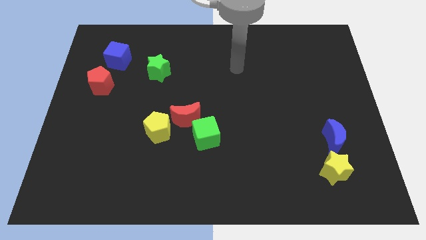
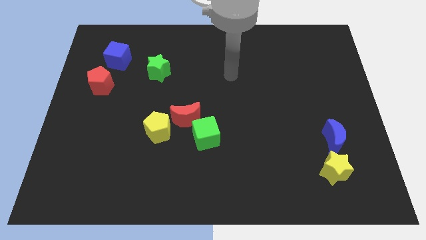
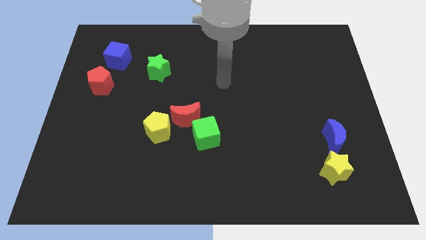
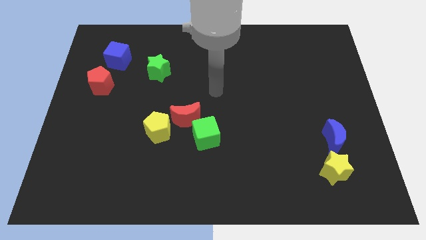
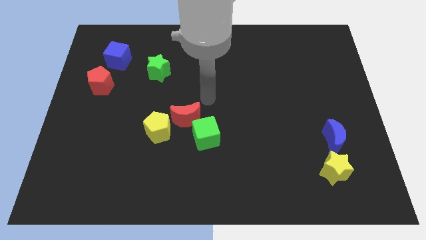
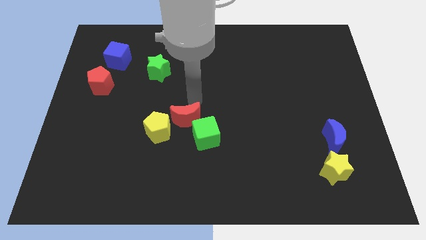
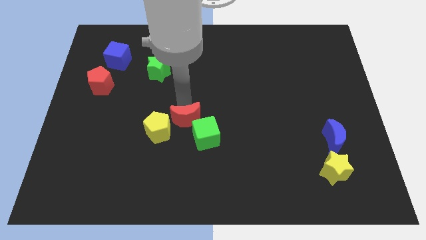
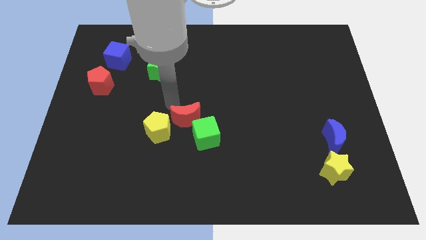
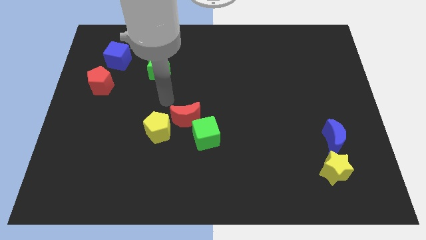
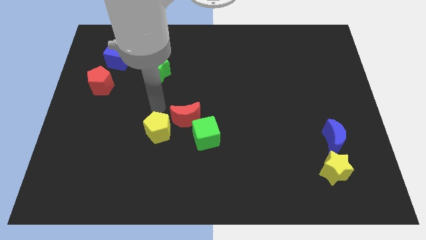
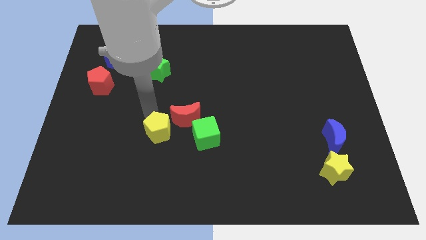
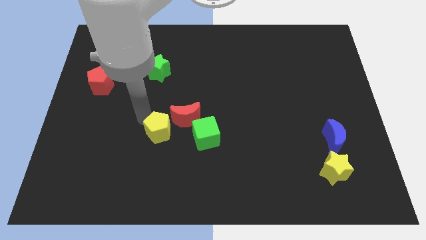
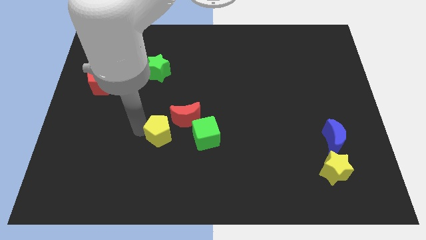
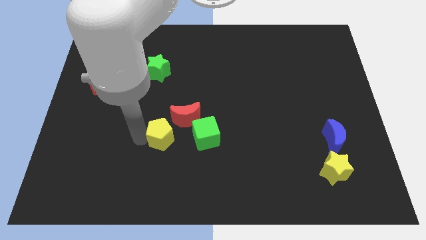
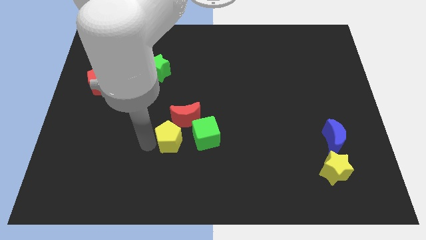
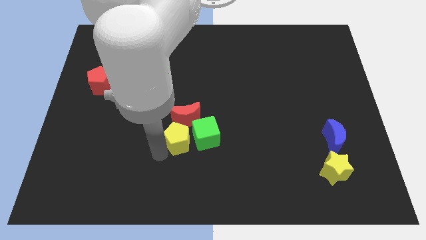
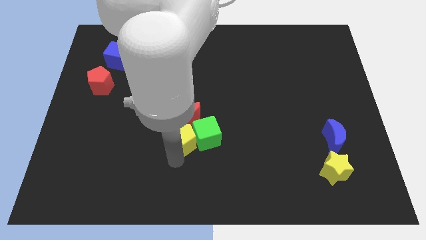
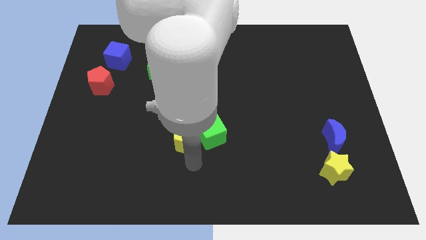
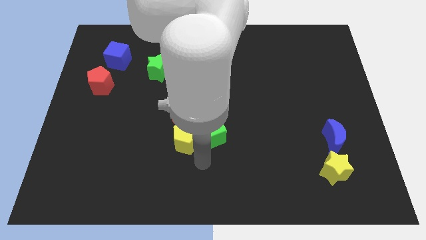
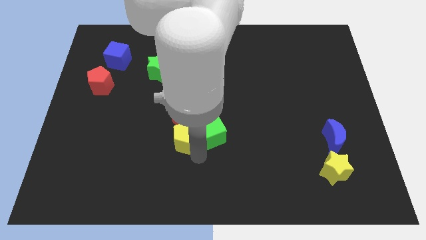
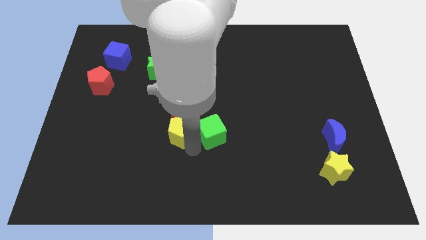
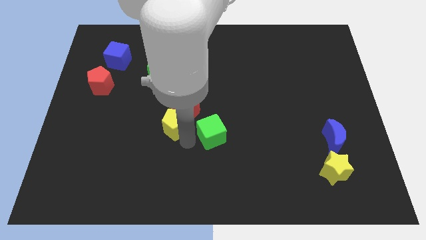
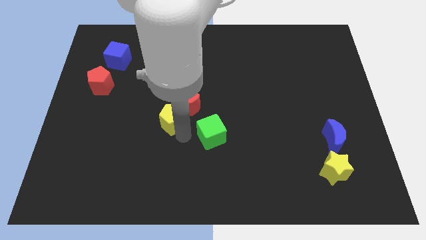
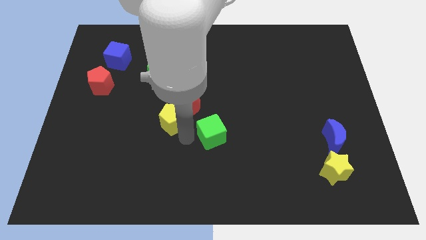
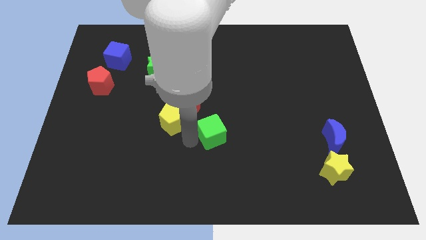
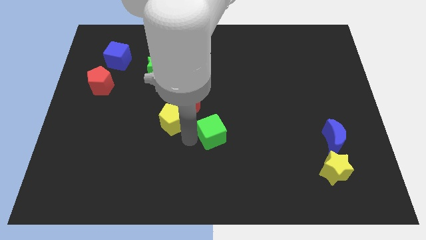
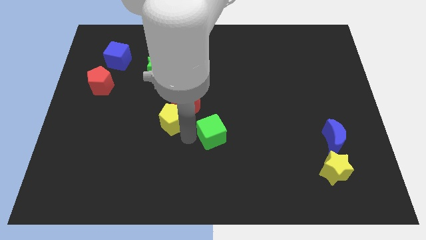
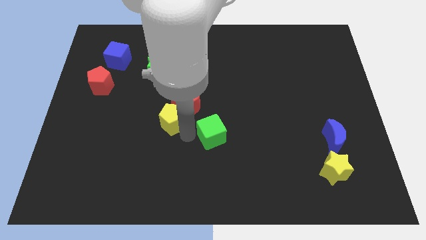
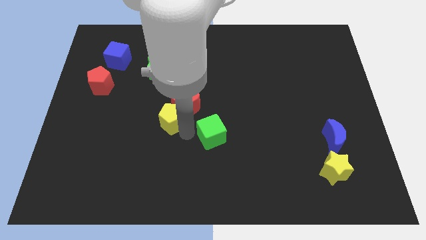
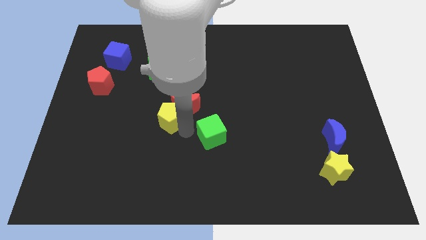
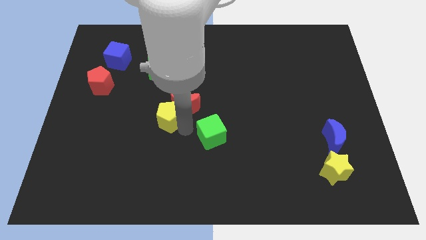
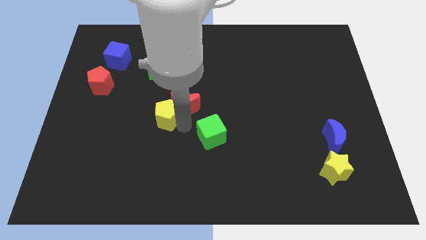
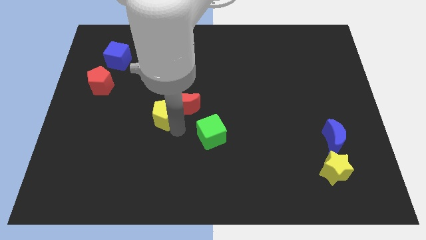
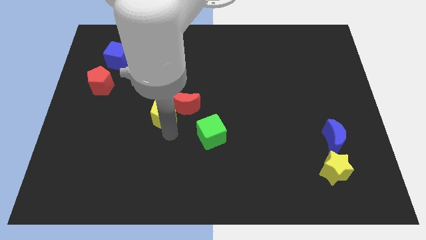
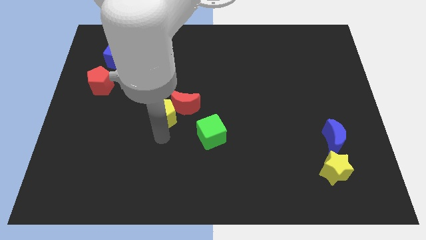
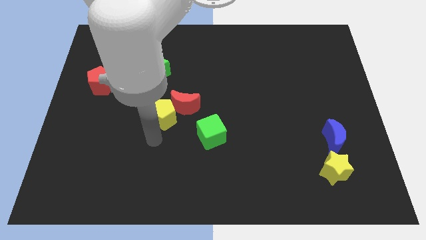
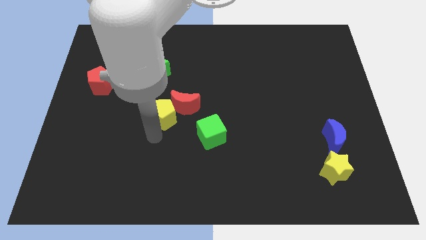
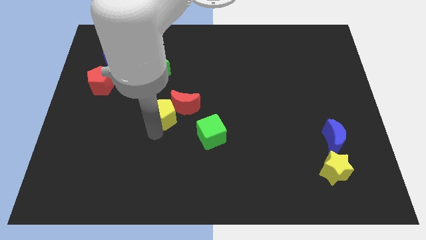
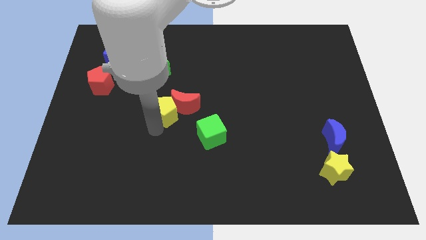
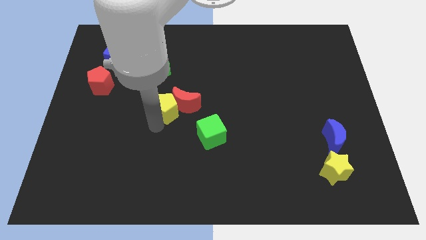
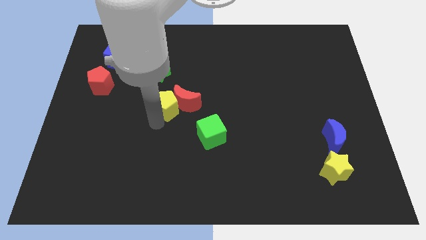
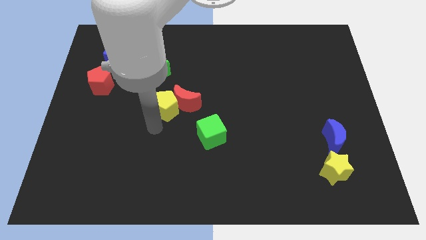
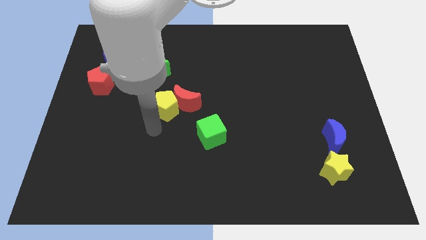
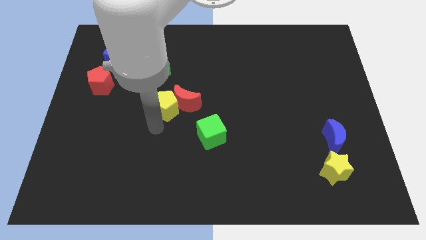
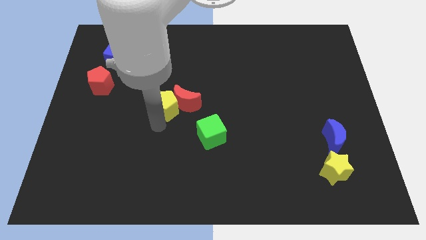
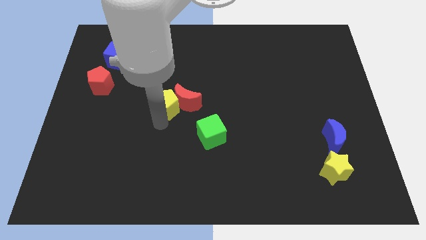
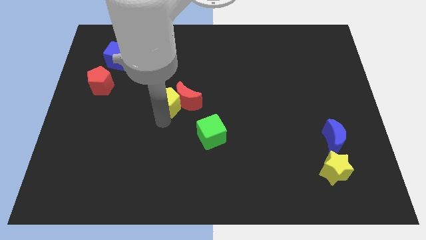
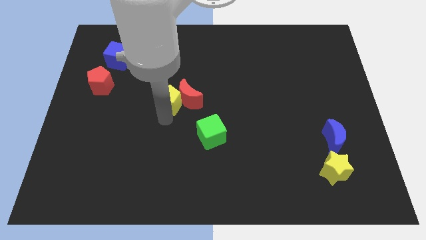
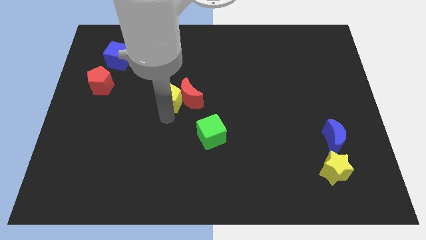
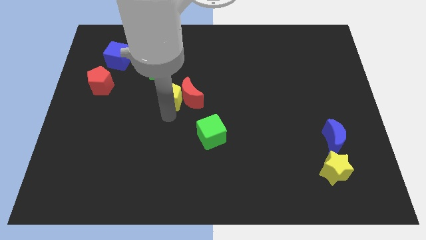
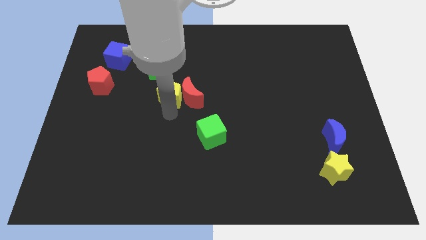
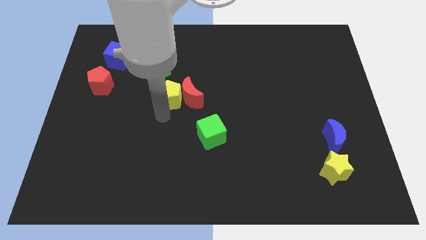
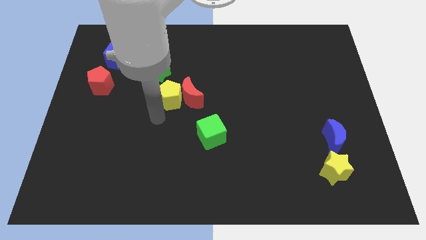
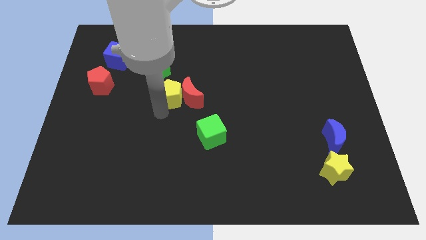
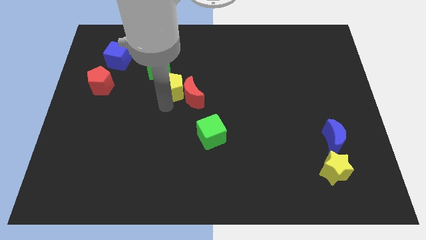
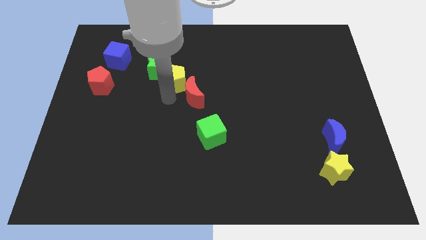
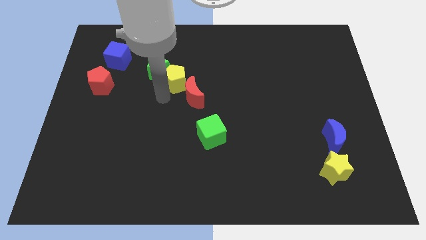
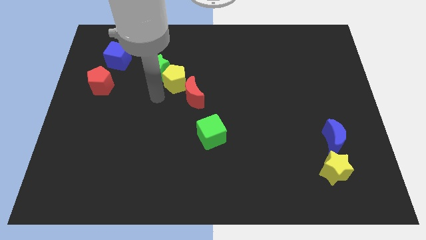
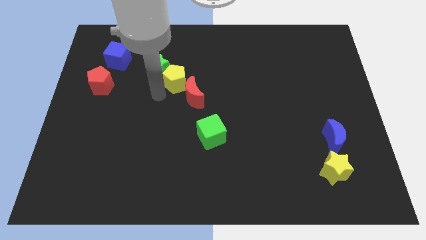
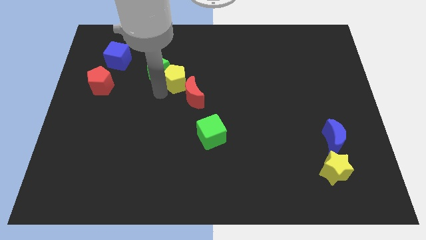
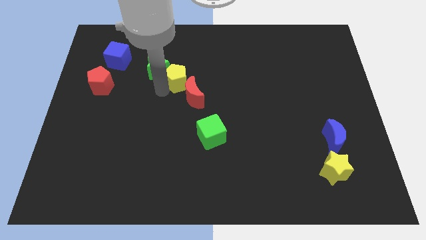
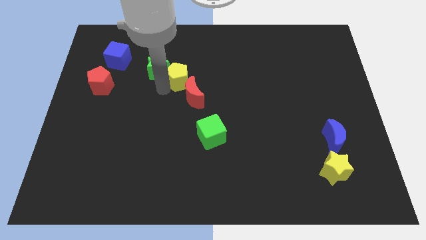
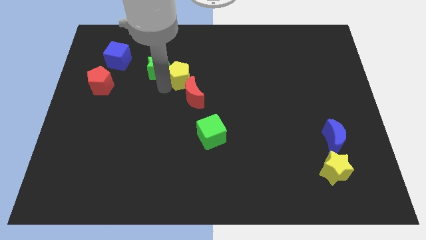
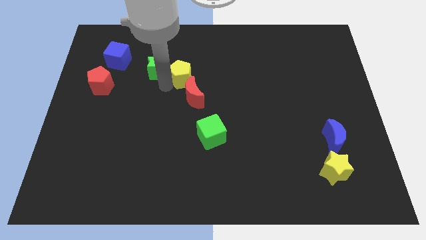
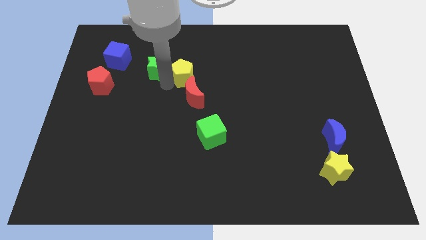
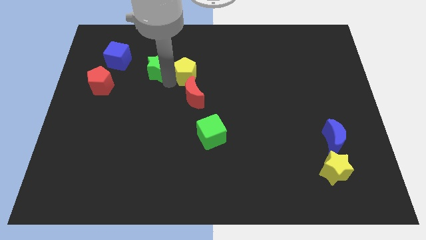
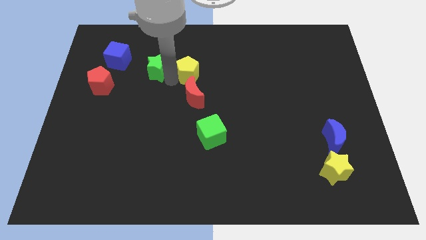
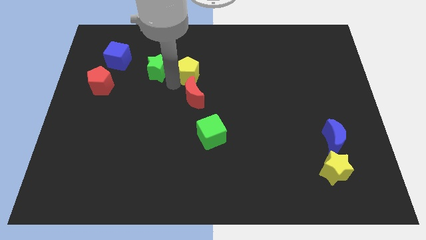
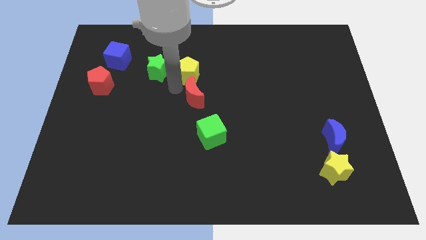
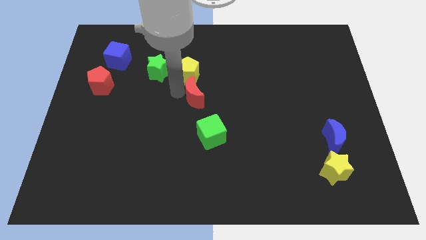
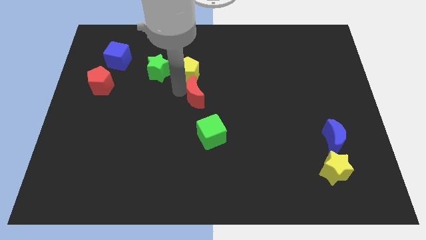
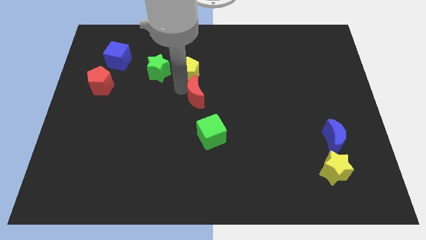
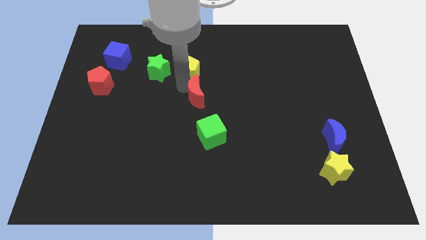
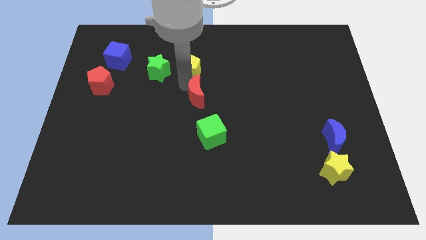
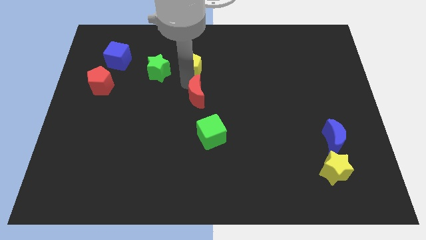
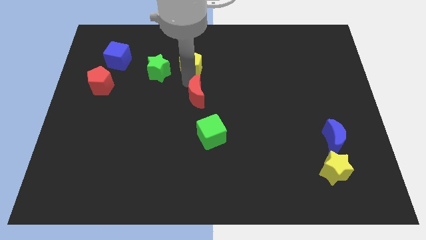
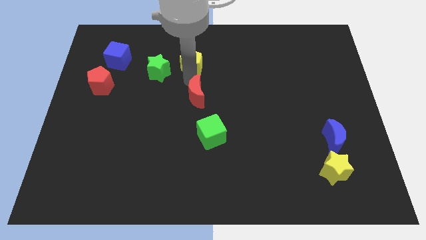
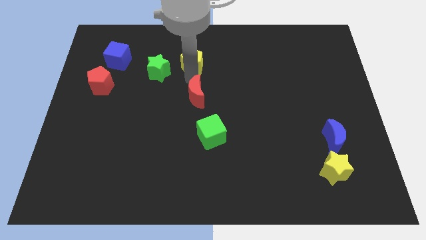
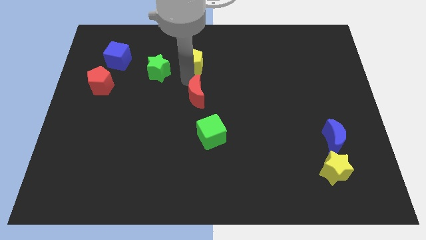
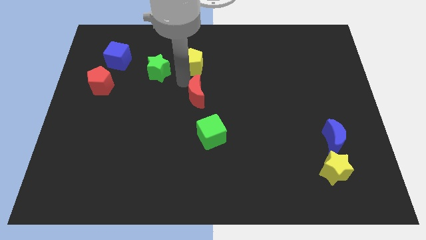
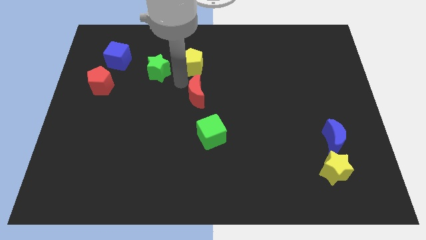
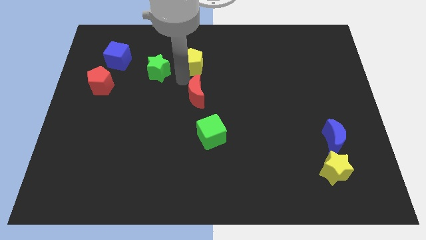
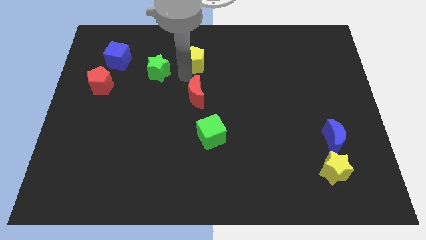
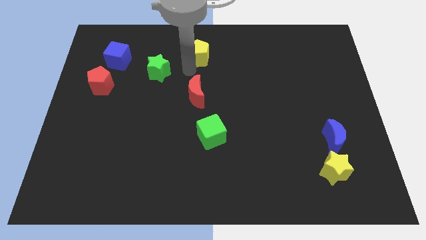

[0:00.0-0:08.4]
put the yellow pentagon to the top
